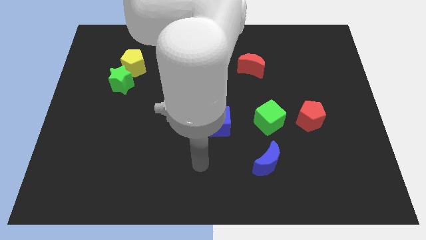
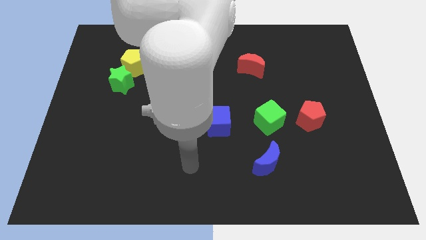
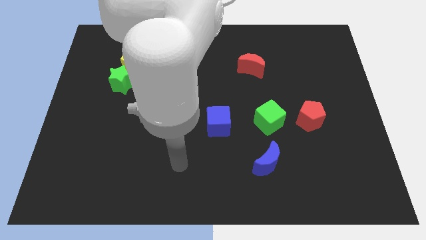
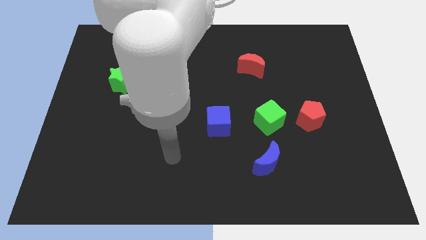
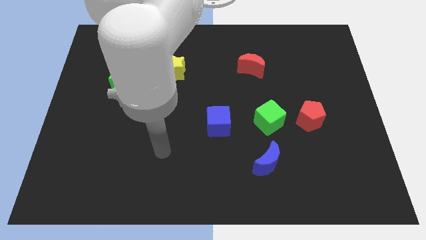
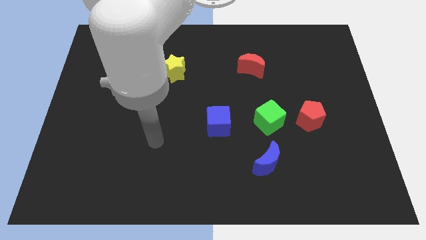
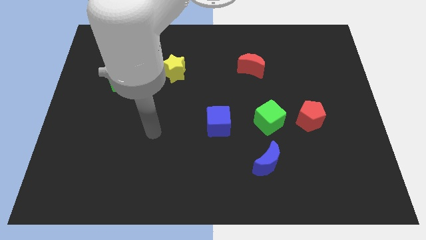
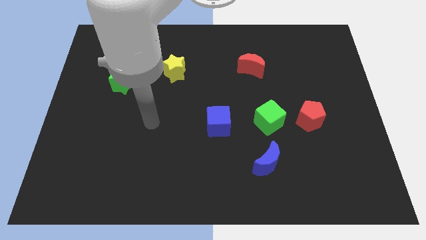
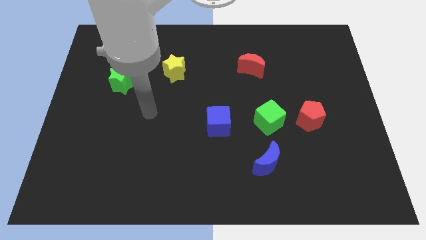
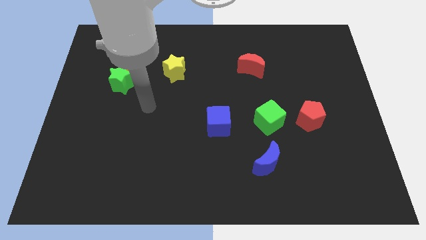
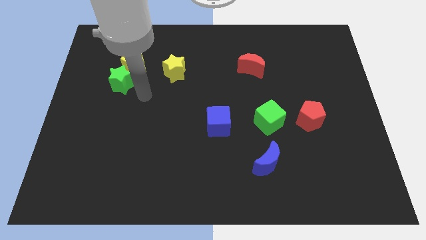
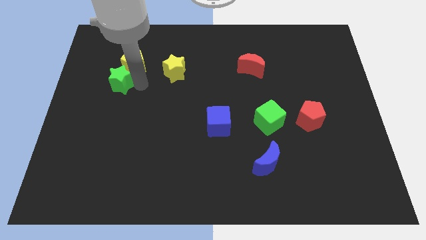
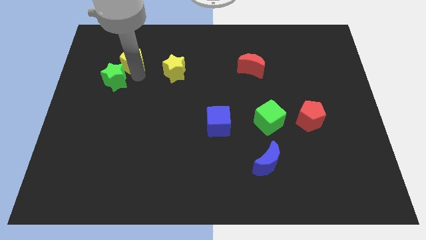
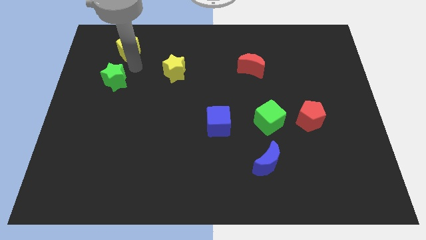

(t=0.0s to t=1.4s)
separate the green star from the yellow pentagon

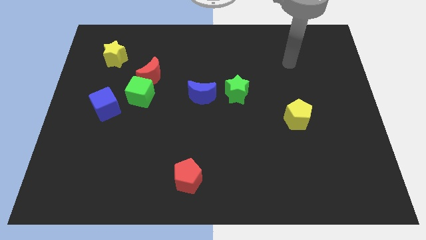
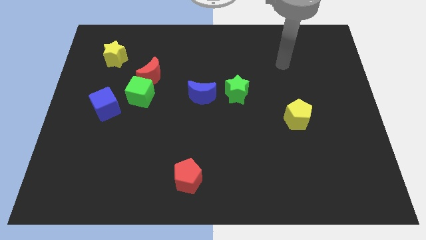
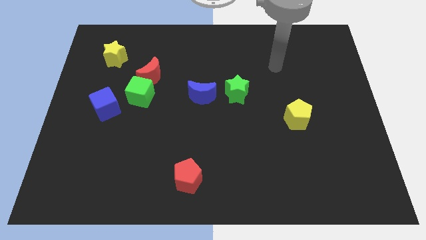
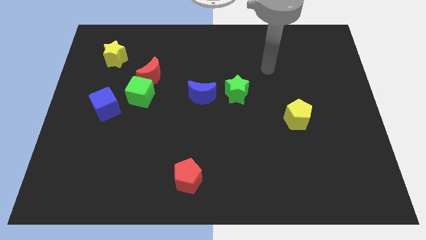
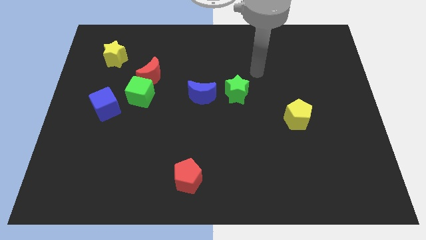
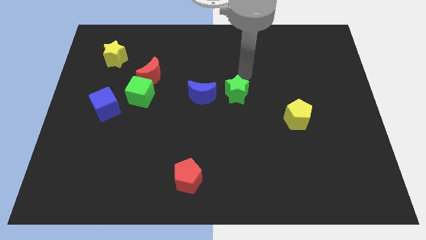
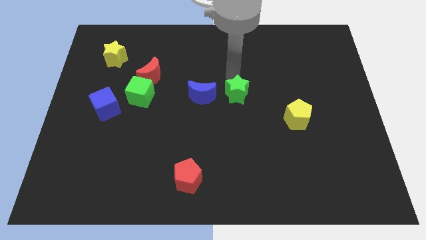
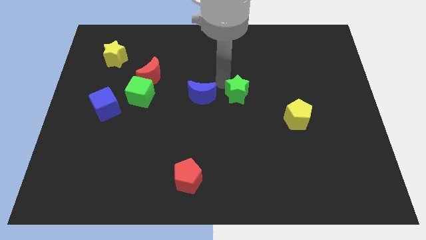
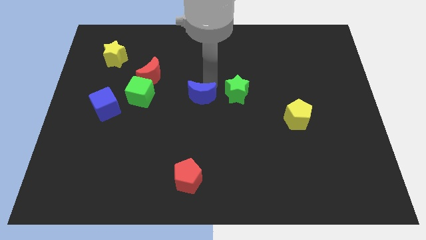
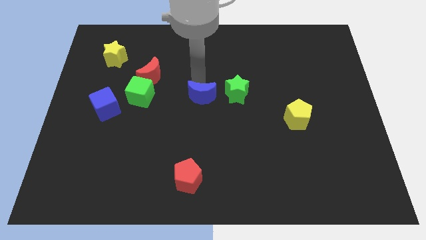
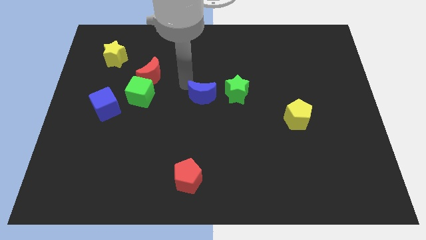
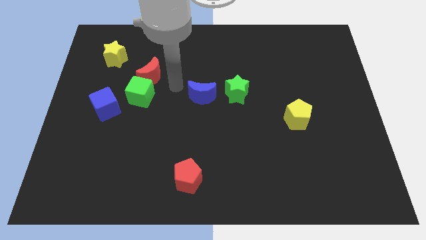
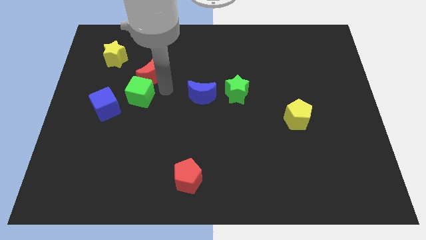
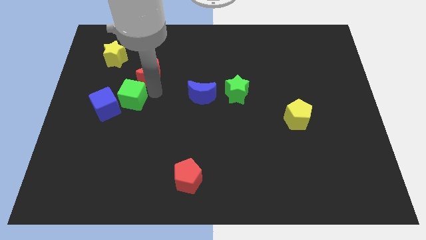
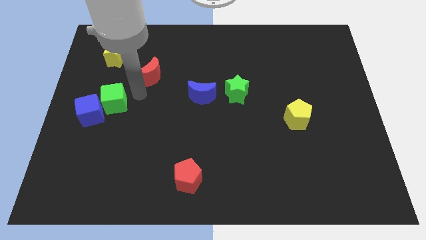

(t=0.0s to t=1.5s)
pull the red moon apart from the green cube

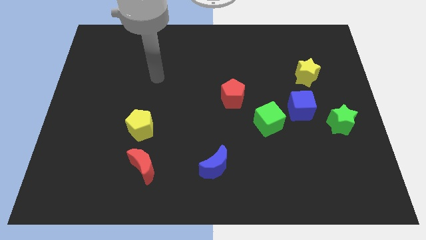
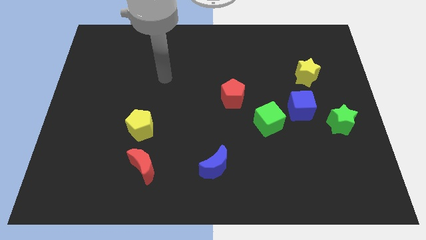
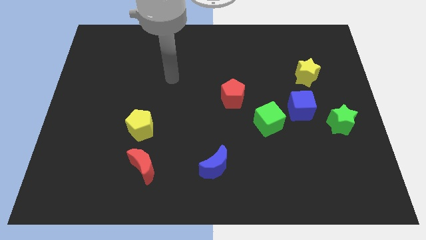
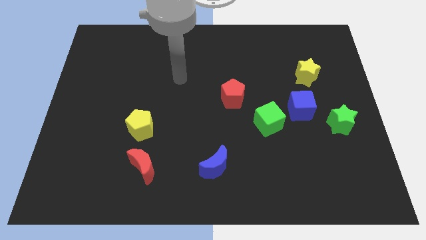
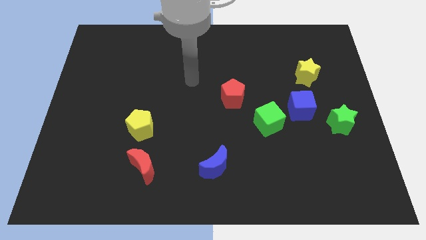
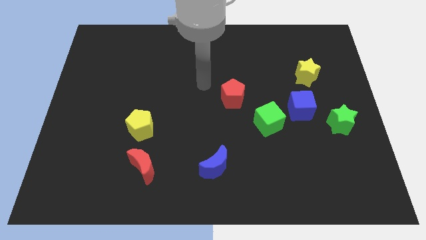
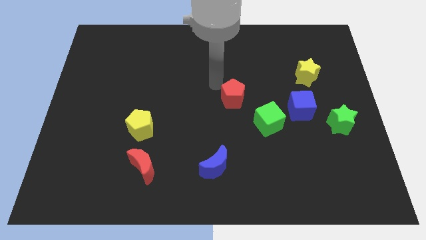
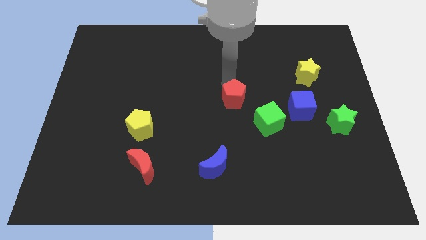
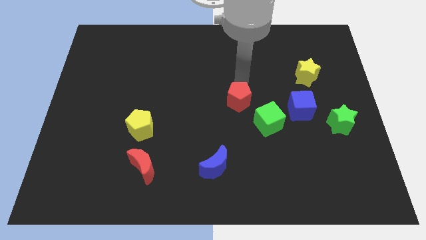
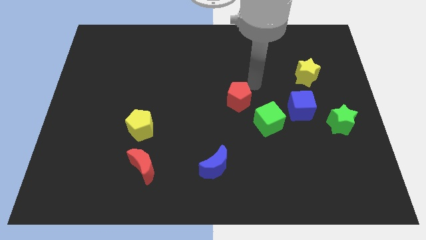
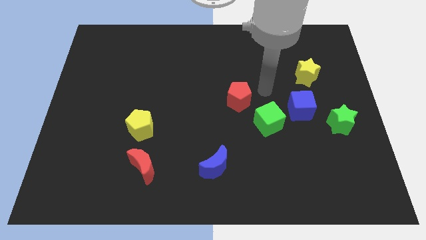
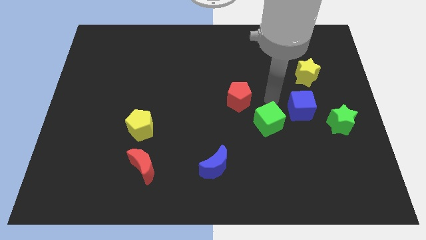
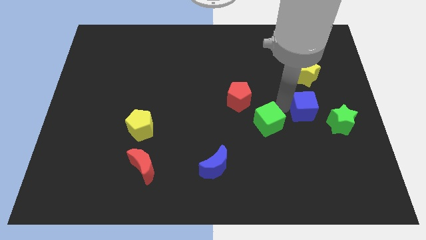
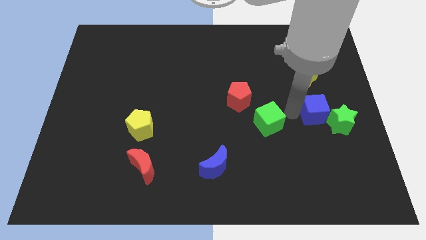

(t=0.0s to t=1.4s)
pull the green cube apart from the blue cube

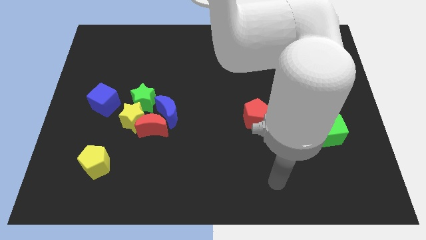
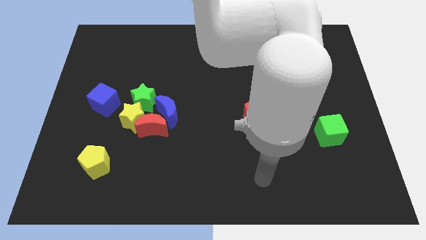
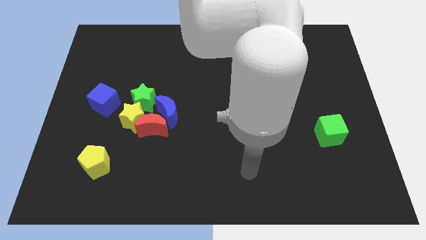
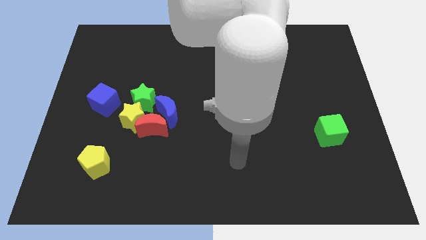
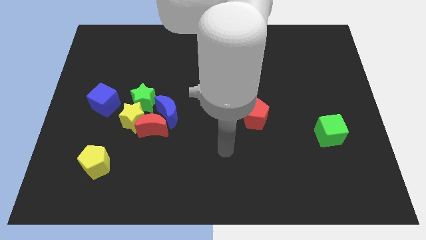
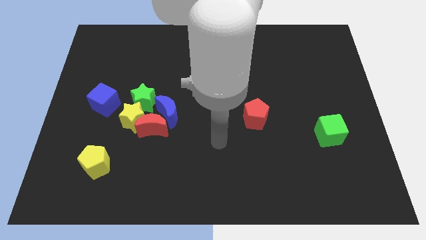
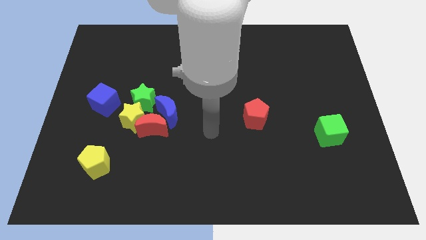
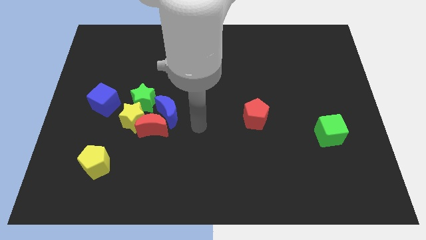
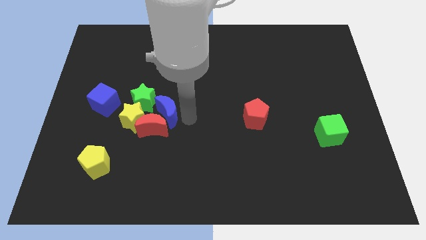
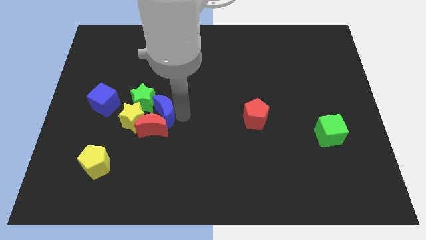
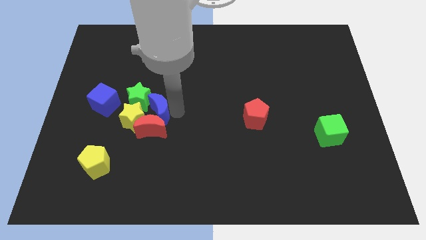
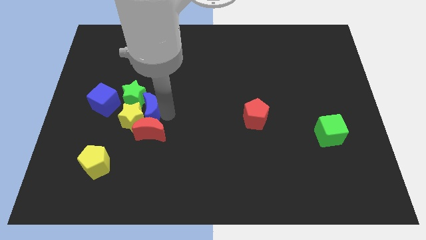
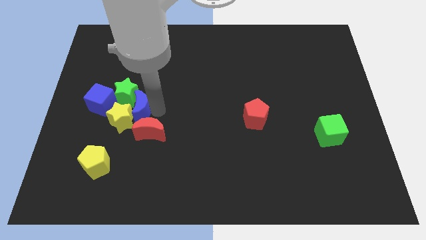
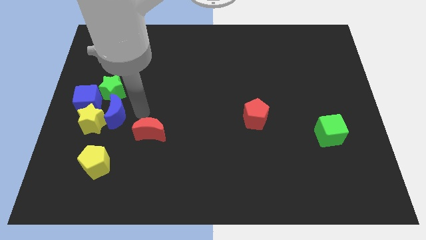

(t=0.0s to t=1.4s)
separate the red moon from the yellow star, blue moon, and green star

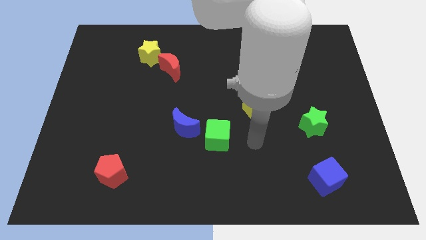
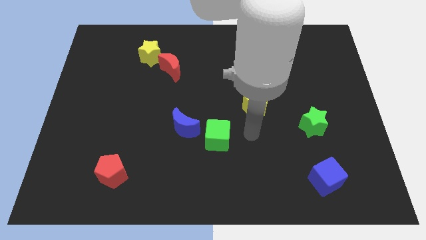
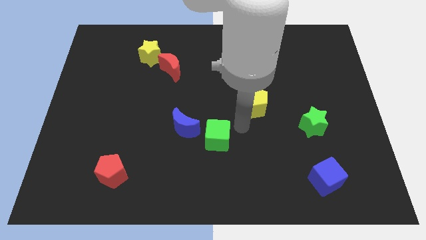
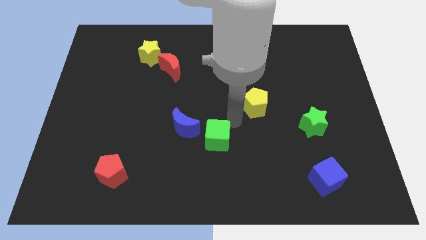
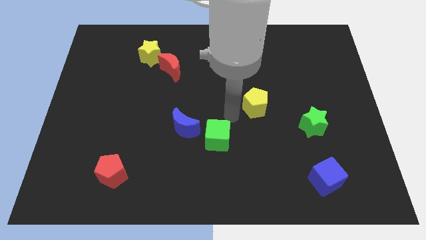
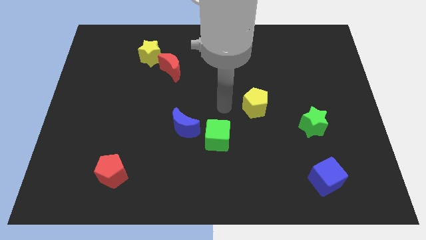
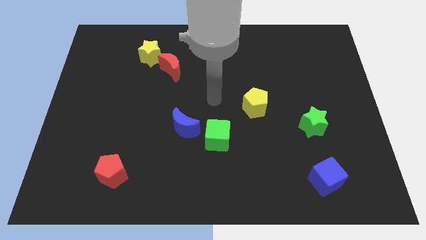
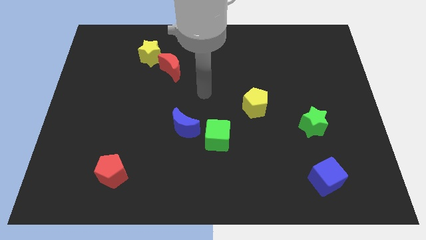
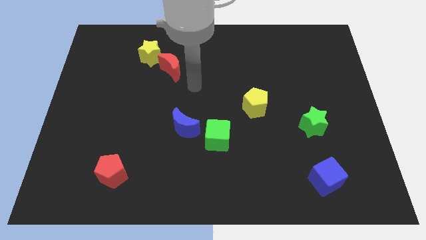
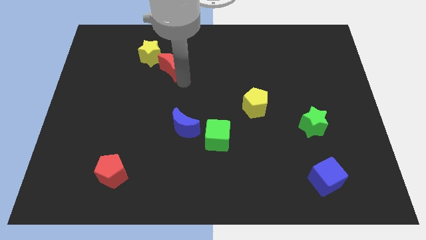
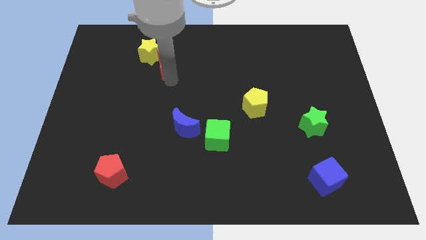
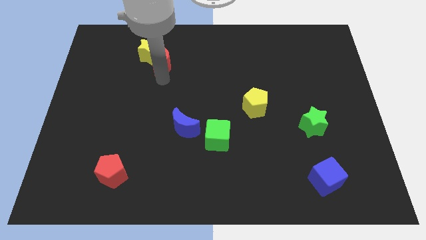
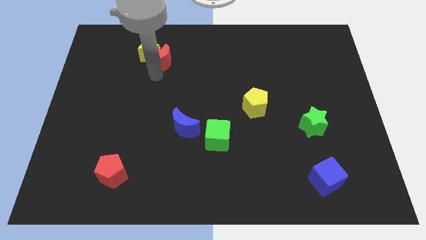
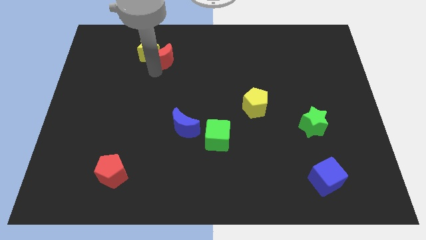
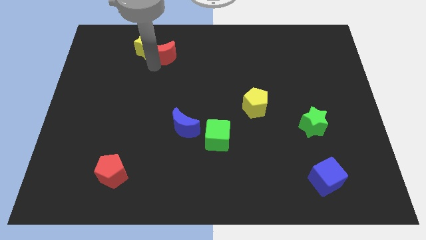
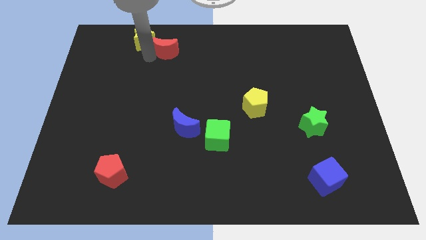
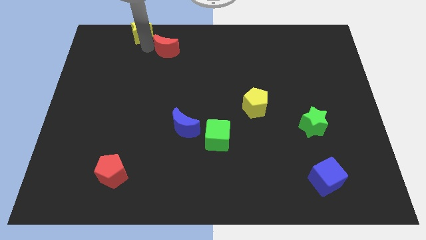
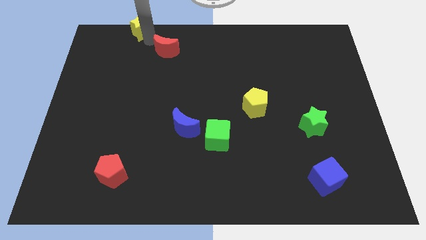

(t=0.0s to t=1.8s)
move the red moon away from the yellow star

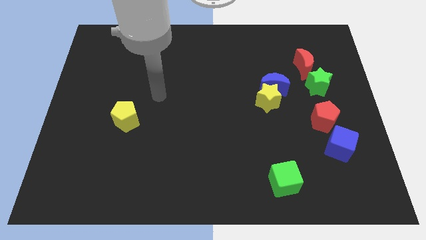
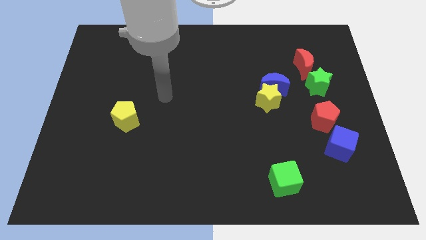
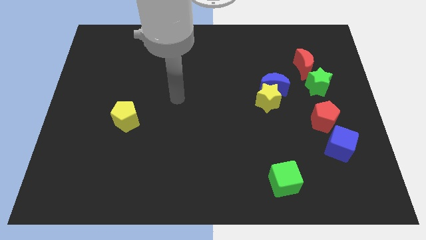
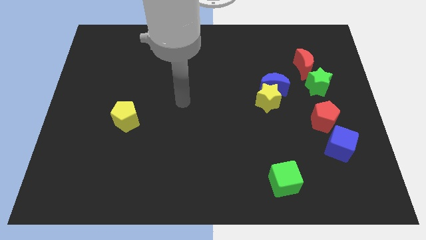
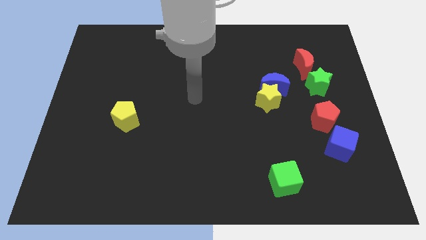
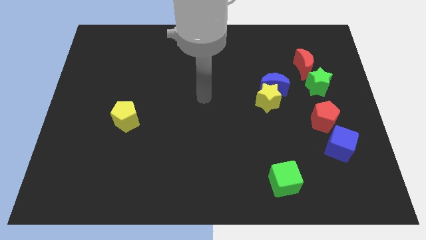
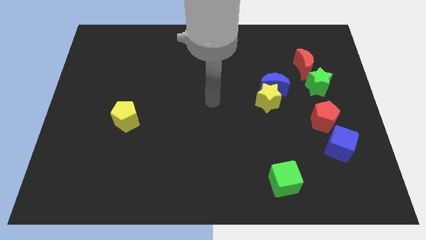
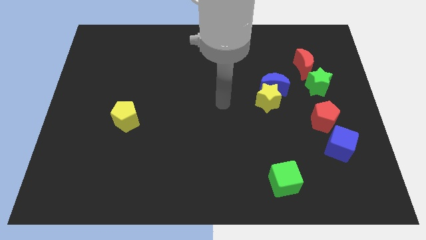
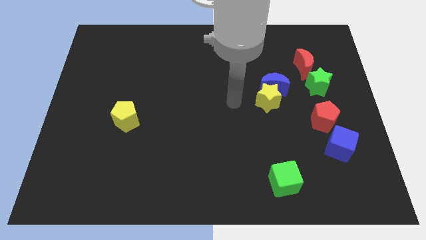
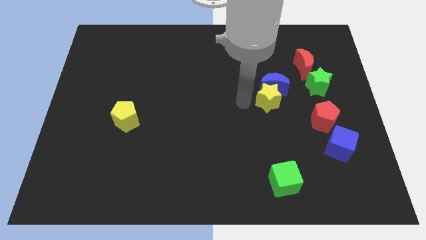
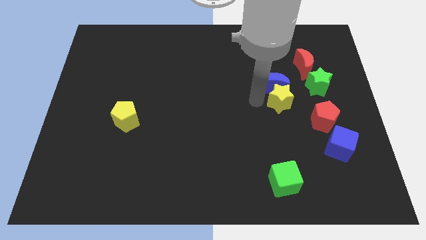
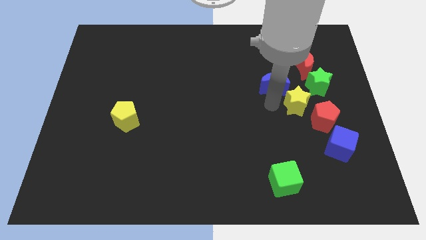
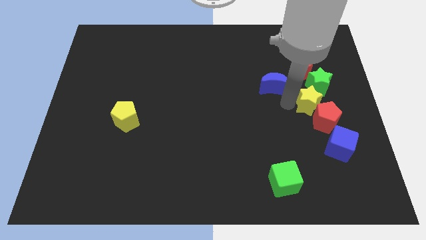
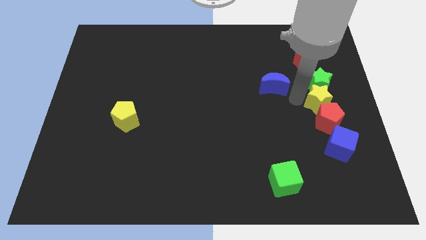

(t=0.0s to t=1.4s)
pull the blue moon apart from the yellow star

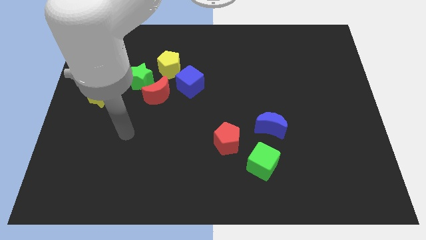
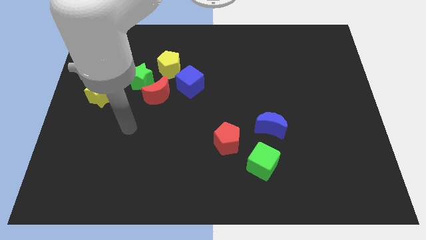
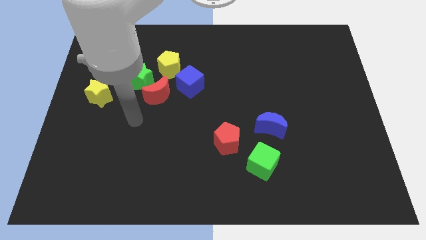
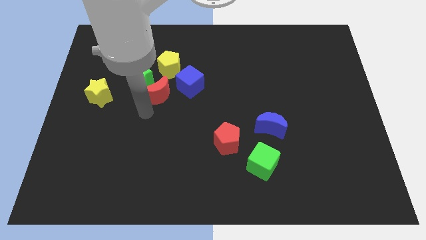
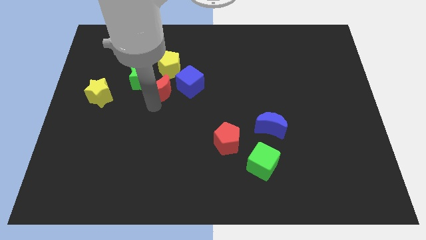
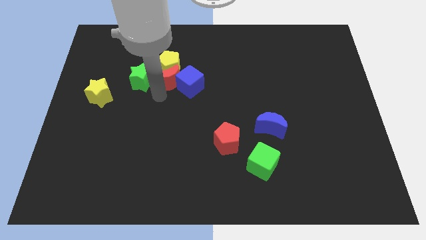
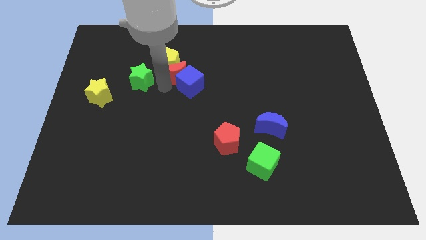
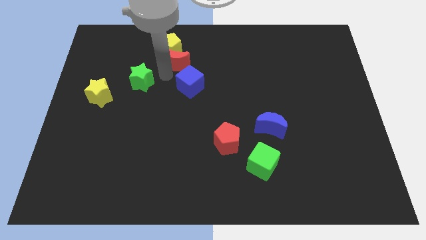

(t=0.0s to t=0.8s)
pull the green star apart from the red moon and yellow pentagon
